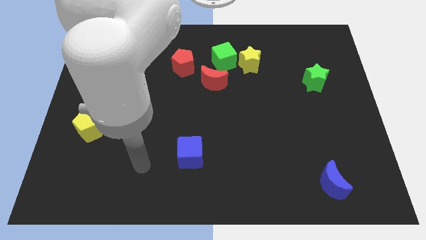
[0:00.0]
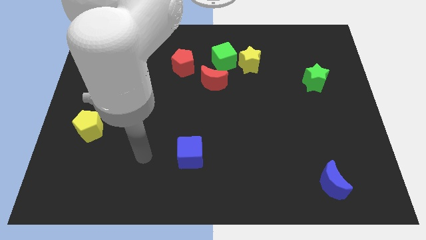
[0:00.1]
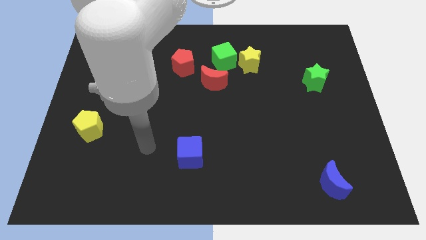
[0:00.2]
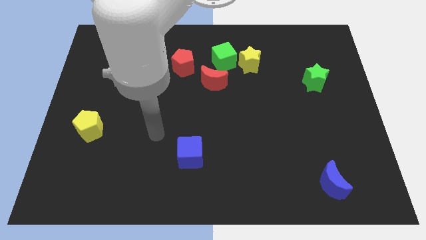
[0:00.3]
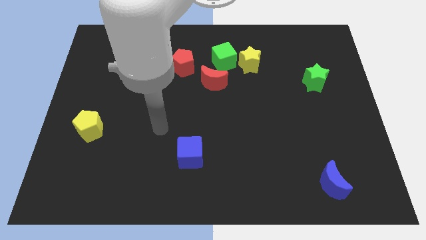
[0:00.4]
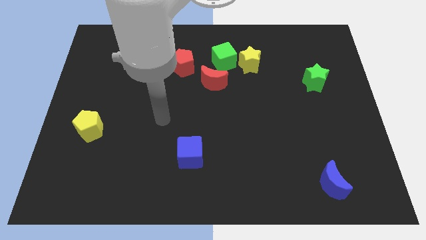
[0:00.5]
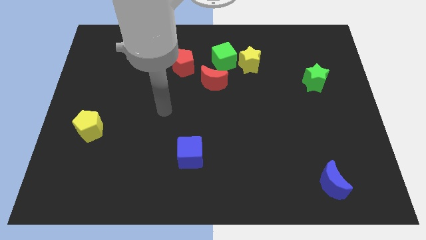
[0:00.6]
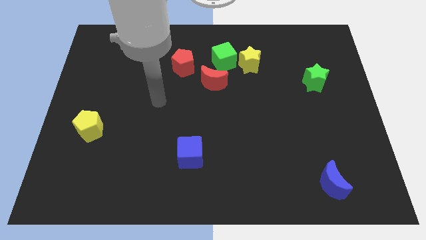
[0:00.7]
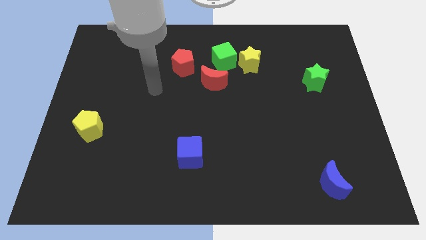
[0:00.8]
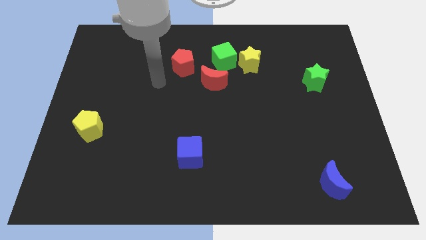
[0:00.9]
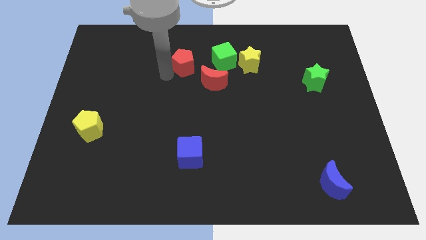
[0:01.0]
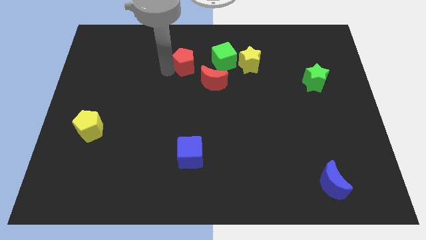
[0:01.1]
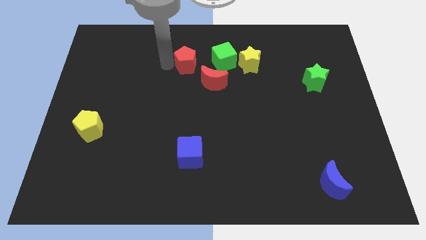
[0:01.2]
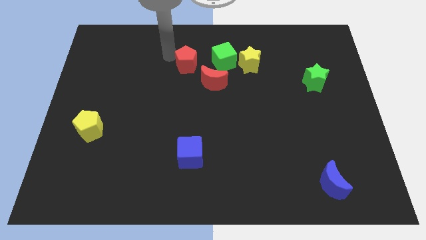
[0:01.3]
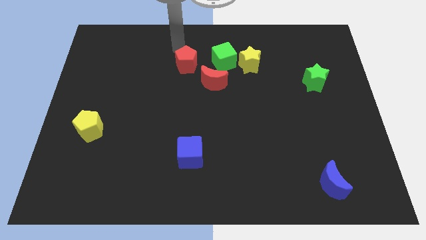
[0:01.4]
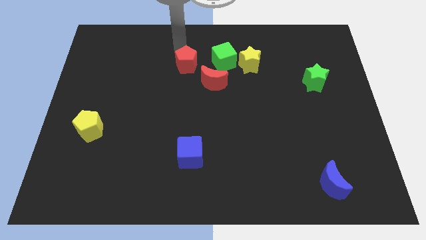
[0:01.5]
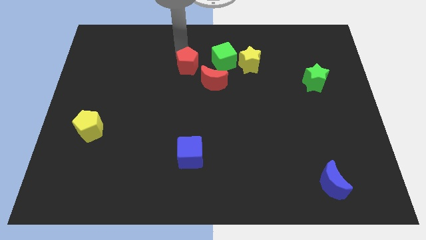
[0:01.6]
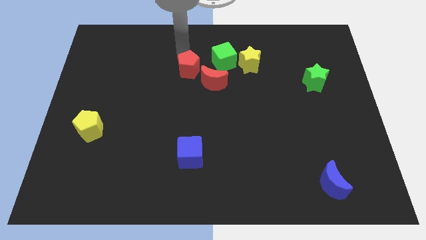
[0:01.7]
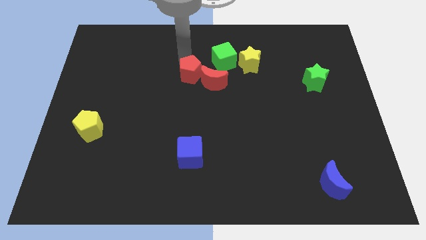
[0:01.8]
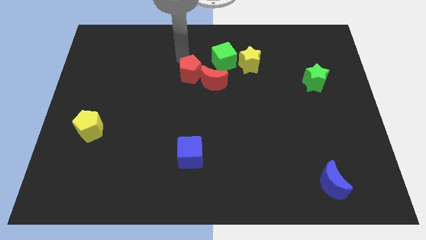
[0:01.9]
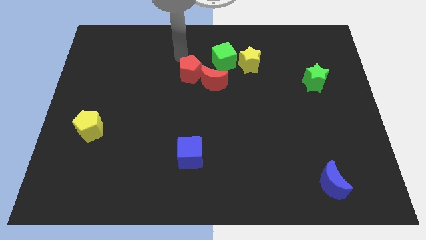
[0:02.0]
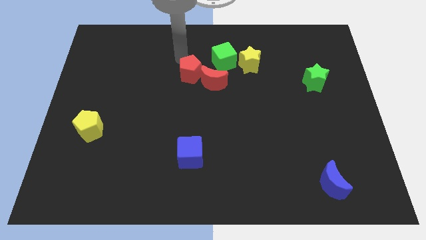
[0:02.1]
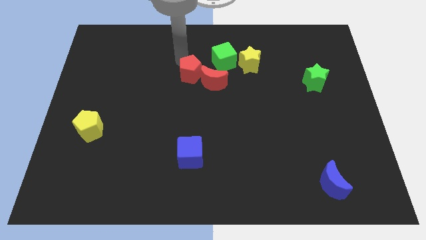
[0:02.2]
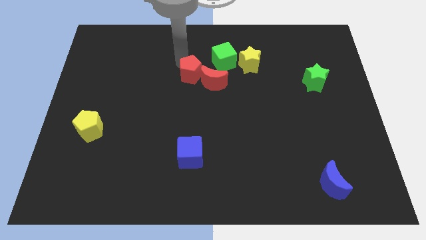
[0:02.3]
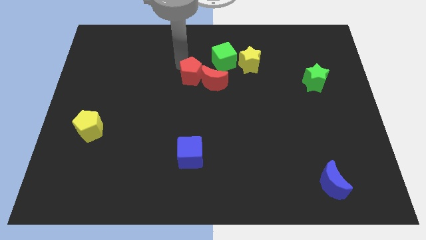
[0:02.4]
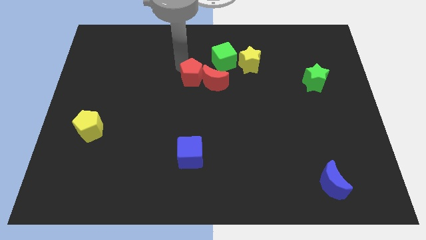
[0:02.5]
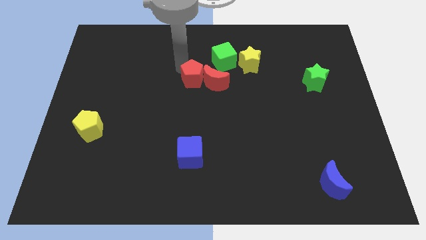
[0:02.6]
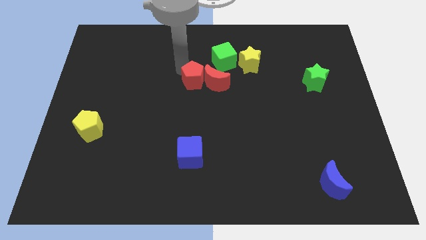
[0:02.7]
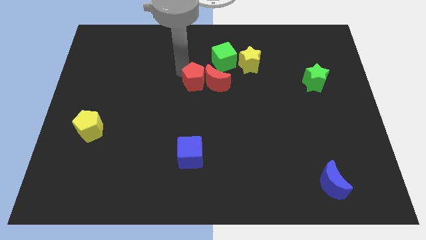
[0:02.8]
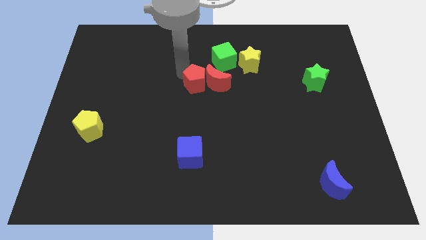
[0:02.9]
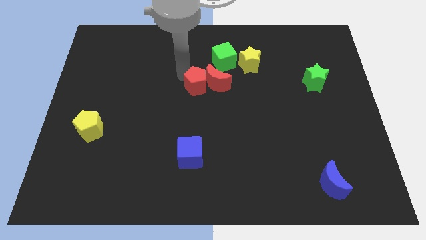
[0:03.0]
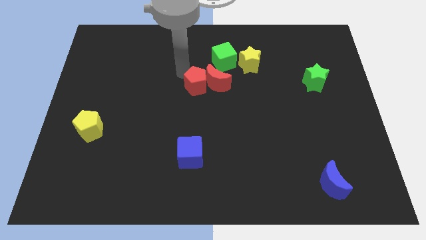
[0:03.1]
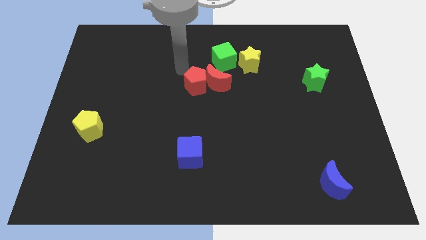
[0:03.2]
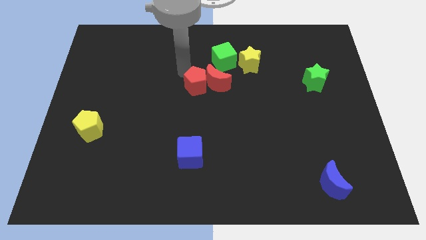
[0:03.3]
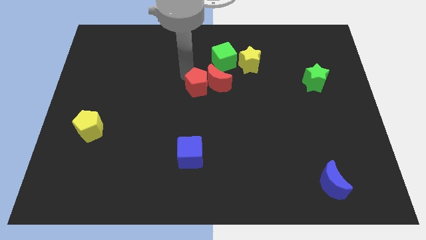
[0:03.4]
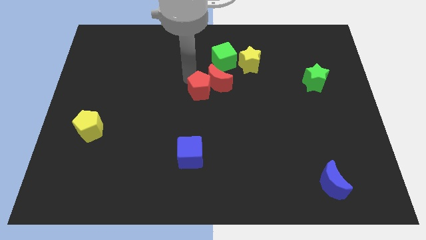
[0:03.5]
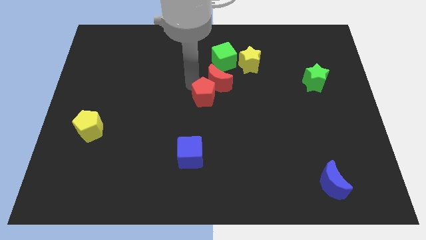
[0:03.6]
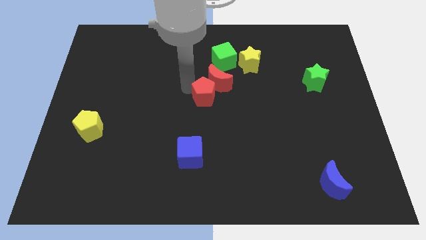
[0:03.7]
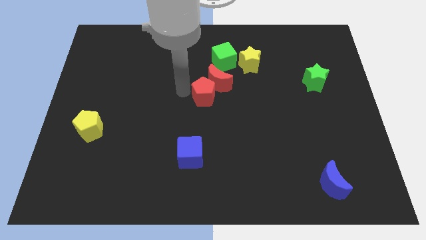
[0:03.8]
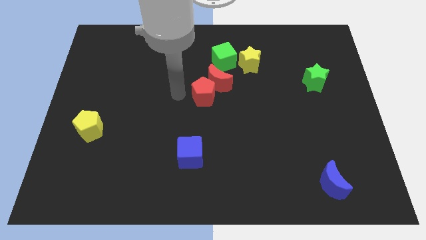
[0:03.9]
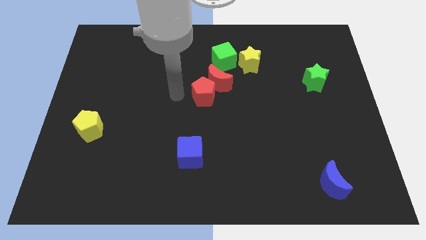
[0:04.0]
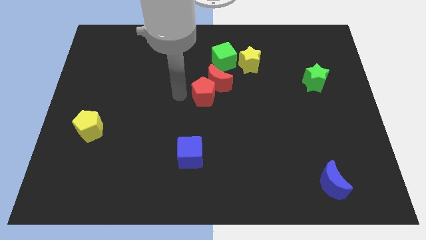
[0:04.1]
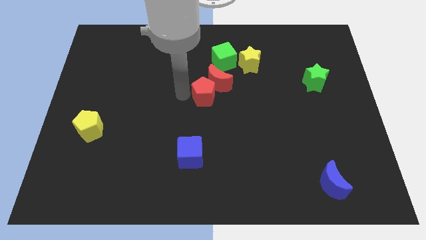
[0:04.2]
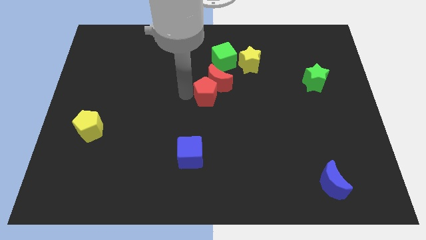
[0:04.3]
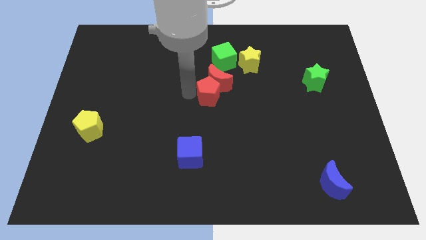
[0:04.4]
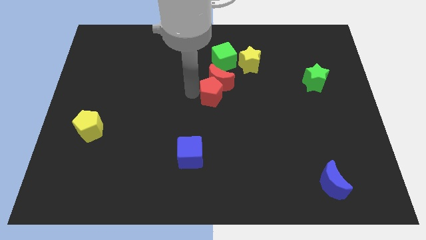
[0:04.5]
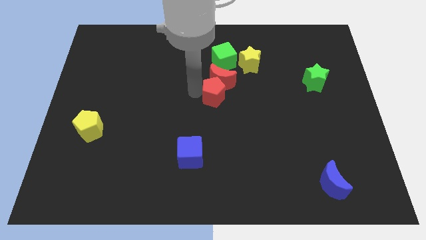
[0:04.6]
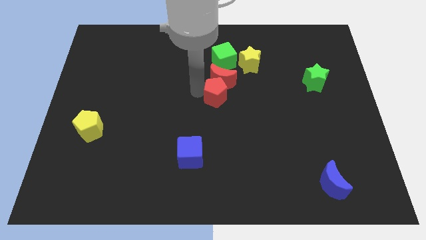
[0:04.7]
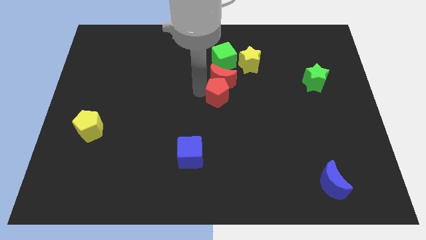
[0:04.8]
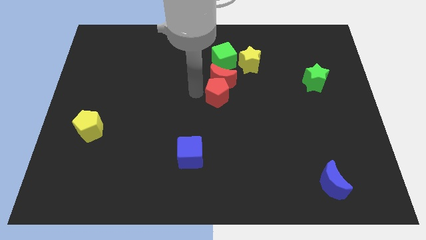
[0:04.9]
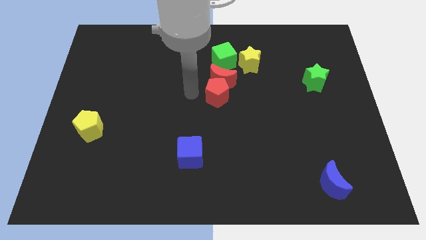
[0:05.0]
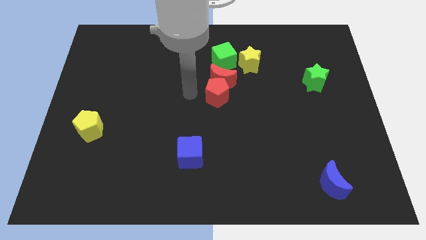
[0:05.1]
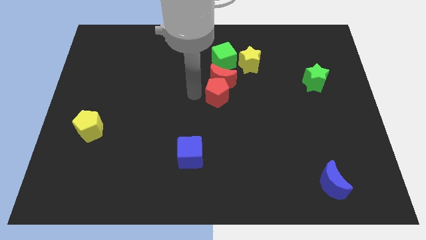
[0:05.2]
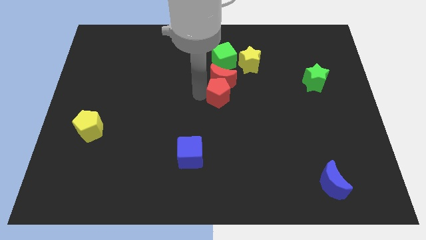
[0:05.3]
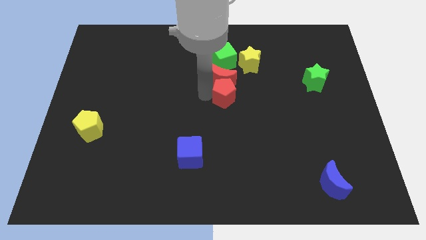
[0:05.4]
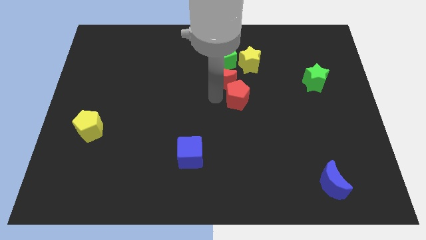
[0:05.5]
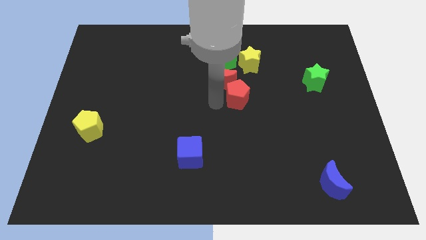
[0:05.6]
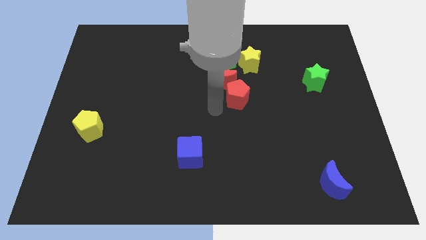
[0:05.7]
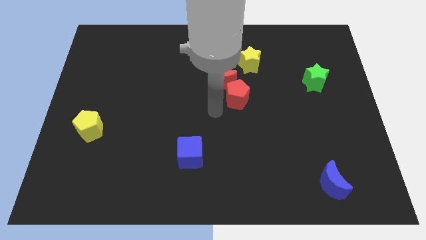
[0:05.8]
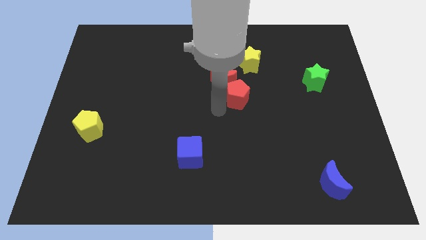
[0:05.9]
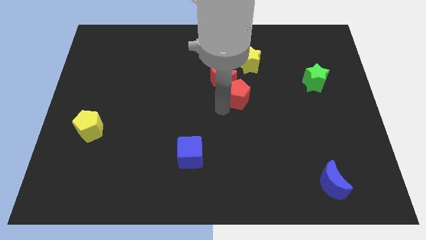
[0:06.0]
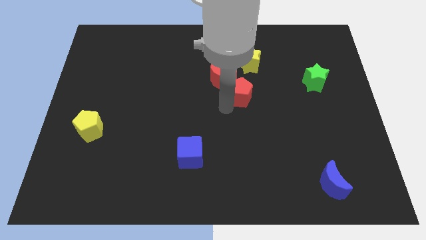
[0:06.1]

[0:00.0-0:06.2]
push the red pentagon to the right of the red moon
